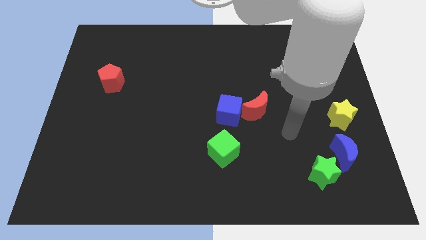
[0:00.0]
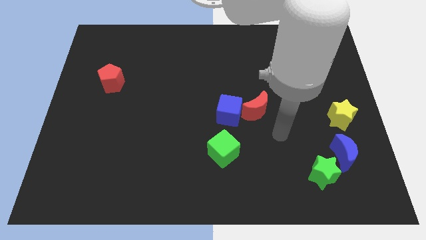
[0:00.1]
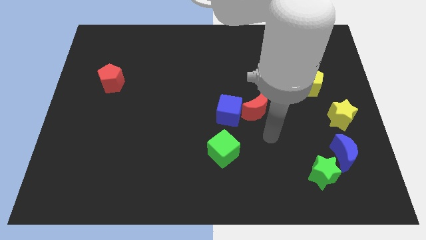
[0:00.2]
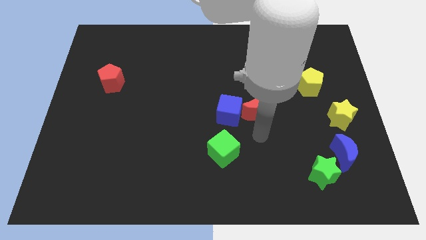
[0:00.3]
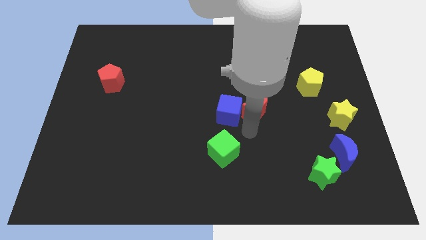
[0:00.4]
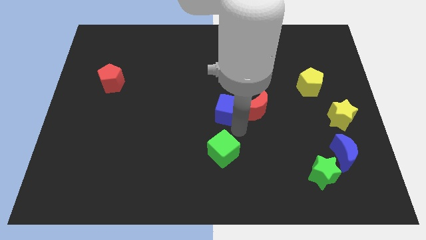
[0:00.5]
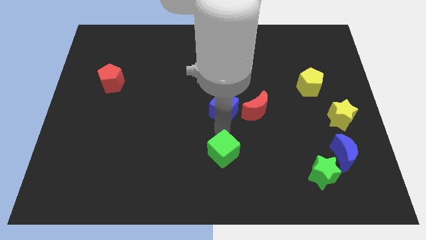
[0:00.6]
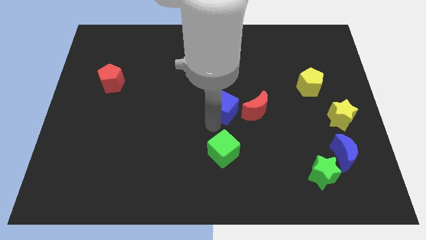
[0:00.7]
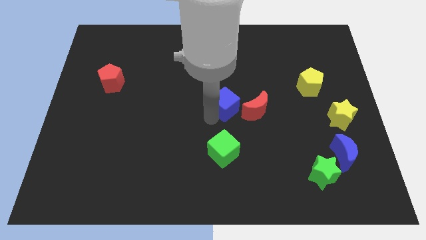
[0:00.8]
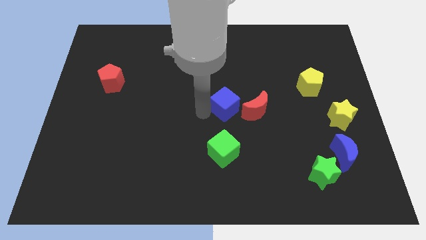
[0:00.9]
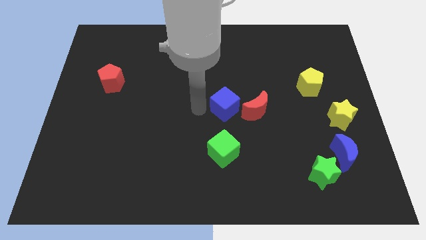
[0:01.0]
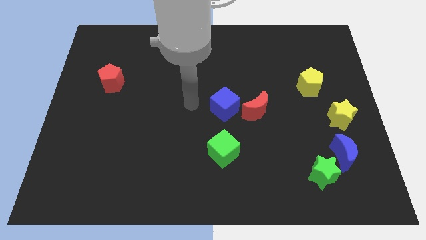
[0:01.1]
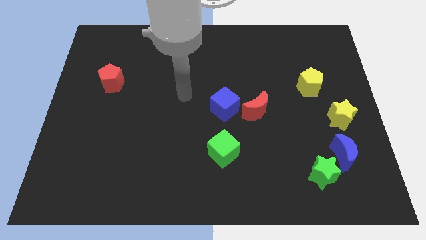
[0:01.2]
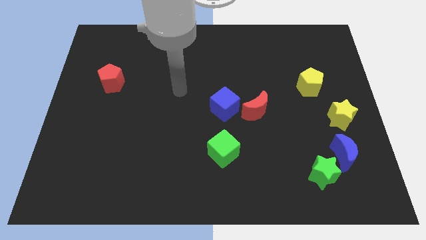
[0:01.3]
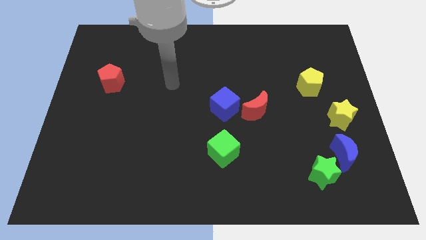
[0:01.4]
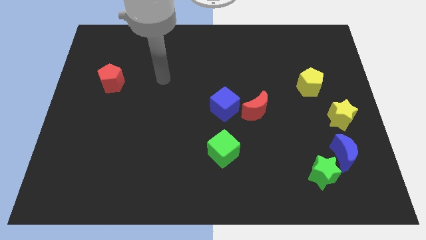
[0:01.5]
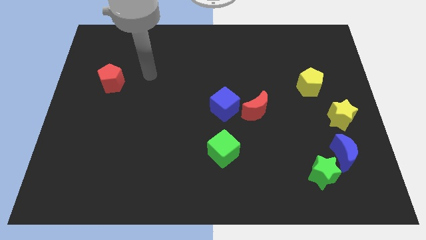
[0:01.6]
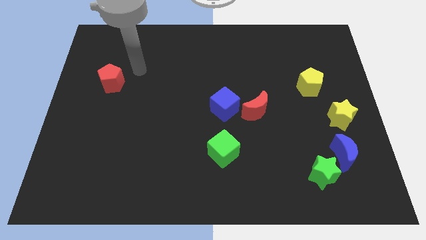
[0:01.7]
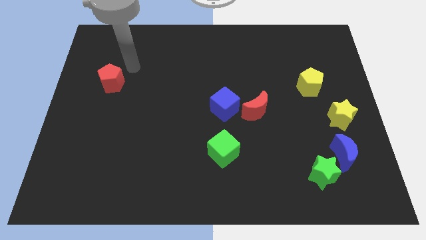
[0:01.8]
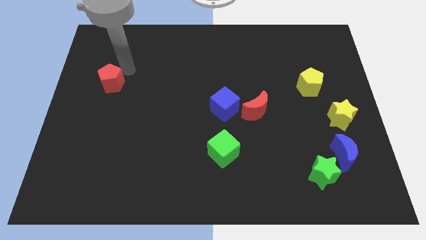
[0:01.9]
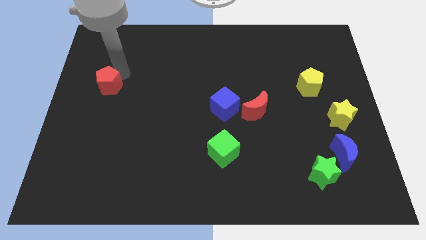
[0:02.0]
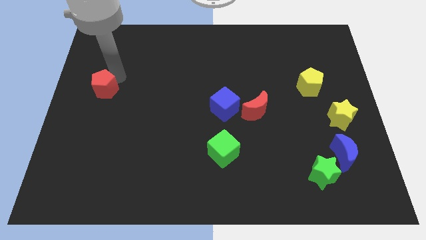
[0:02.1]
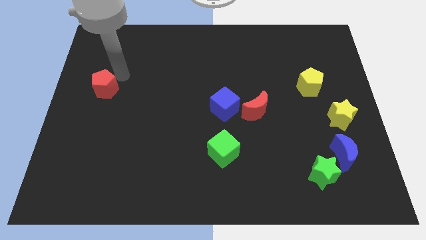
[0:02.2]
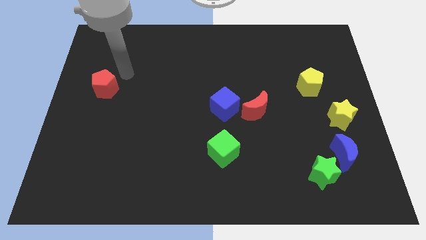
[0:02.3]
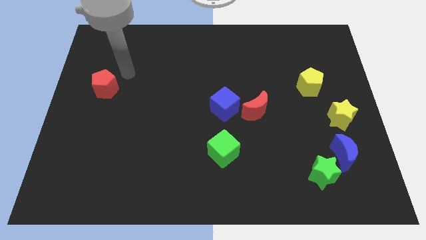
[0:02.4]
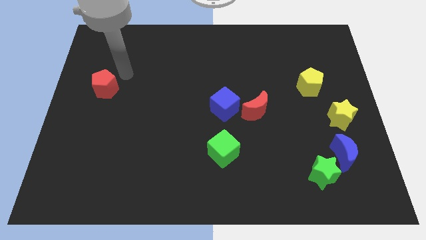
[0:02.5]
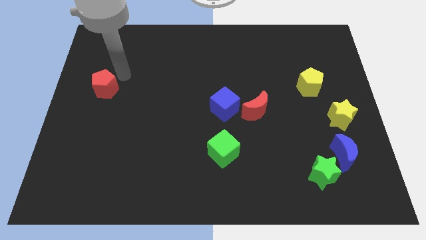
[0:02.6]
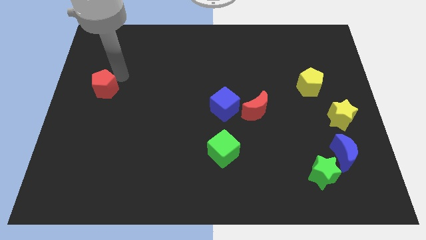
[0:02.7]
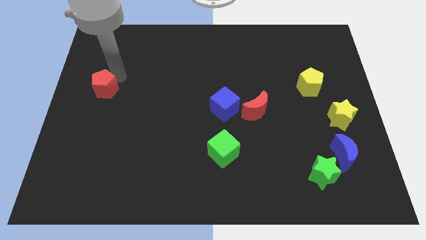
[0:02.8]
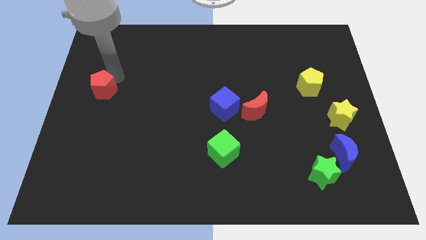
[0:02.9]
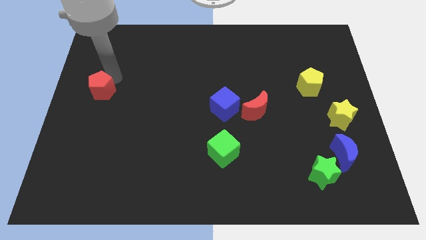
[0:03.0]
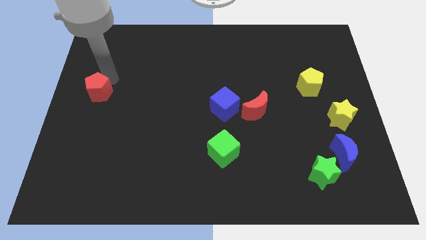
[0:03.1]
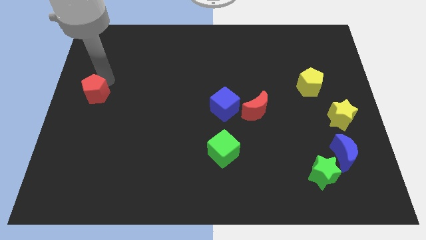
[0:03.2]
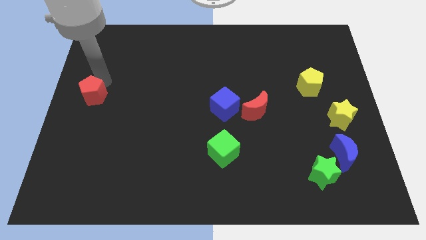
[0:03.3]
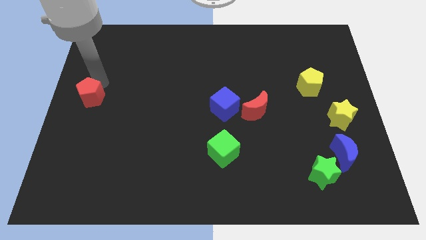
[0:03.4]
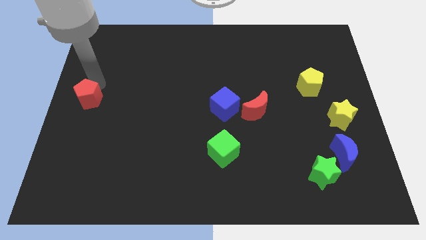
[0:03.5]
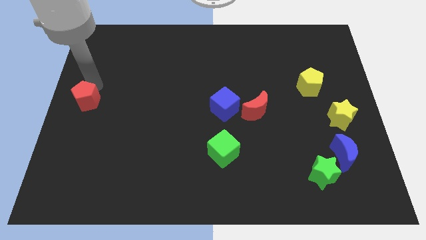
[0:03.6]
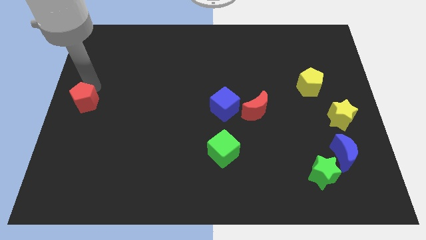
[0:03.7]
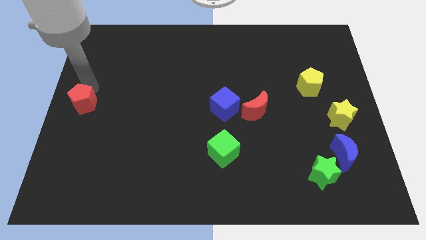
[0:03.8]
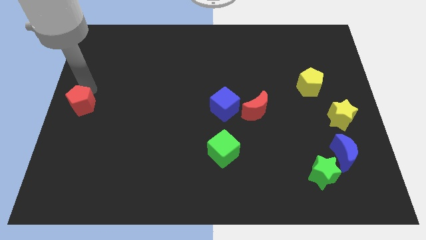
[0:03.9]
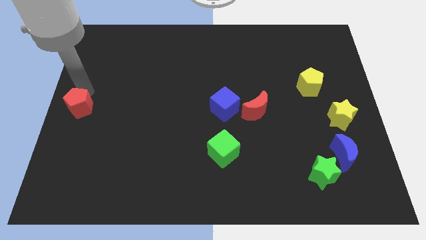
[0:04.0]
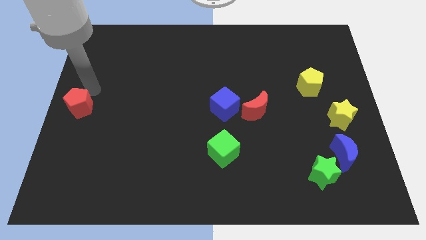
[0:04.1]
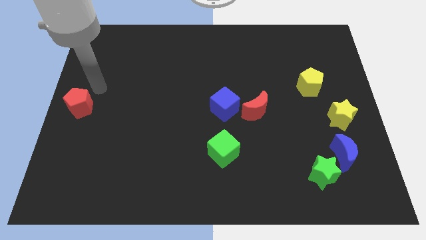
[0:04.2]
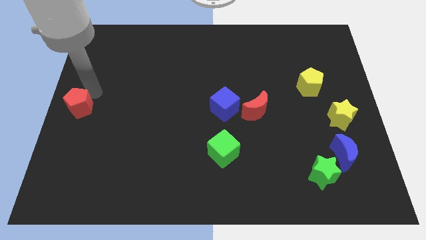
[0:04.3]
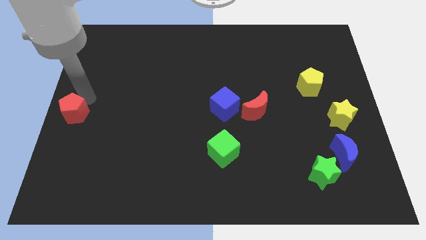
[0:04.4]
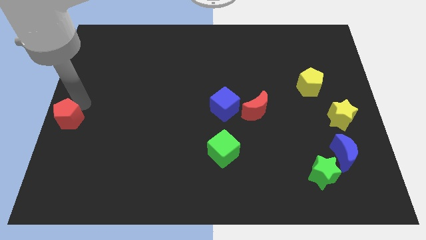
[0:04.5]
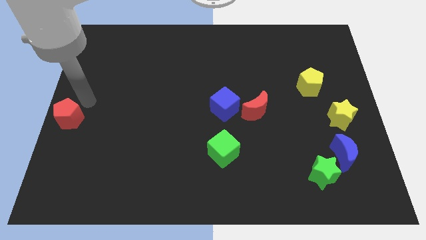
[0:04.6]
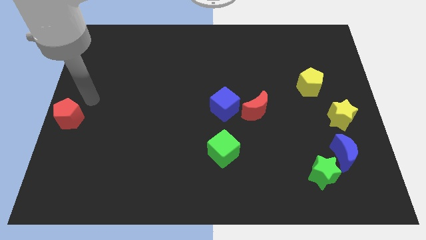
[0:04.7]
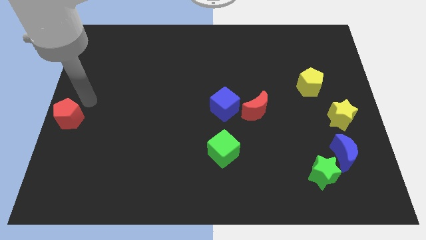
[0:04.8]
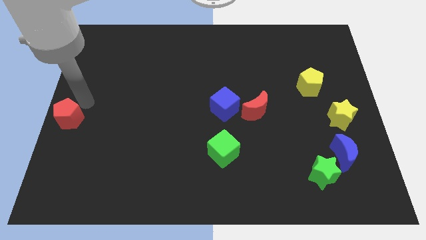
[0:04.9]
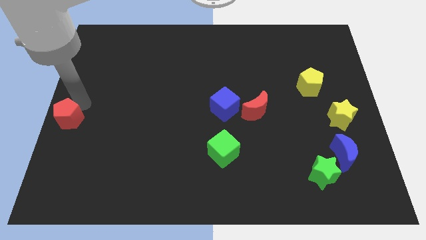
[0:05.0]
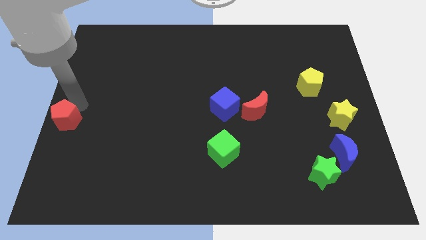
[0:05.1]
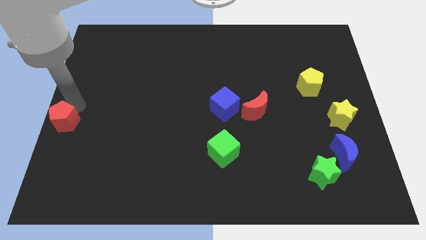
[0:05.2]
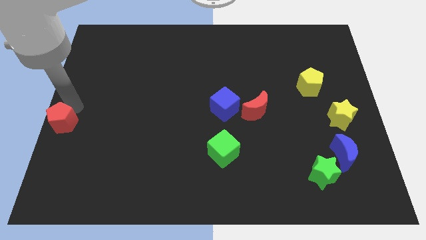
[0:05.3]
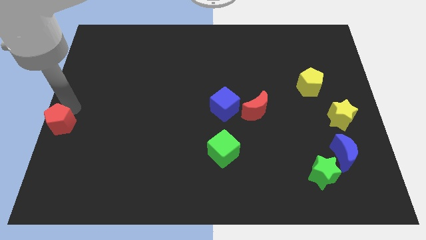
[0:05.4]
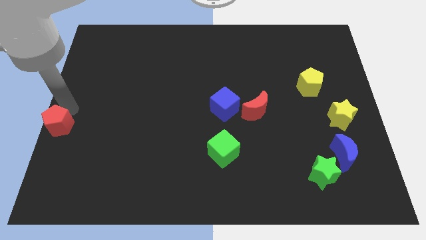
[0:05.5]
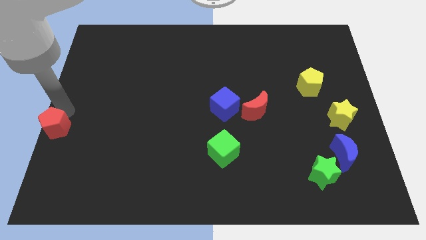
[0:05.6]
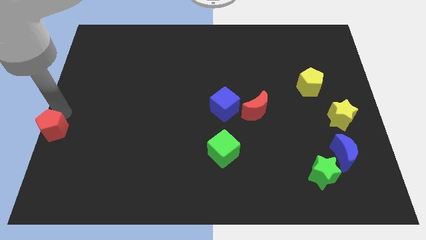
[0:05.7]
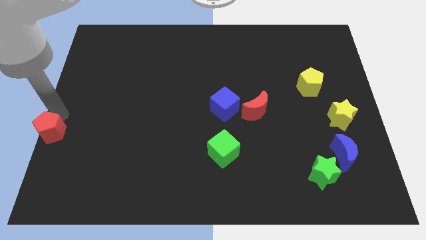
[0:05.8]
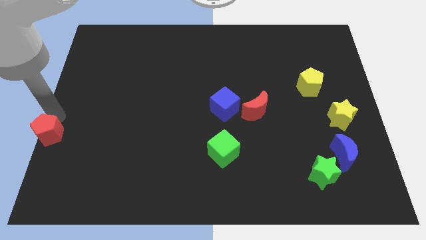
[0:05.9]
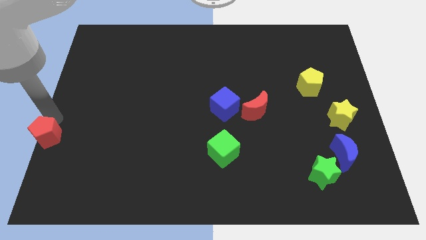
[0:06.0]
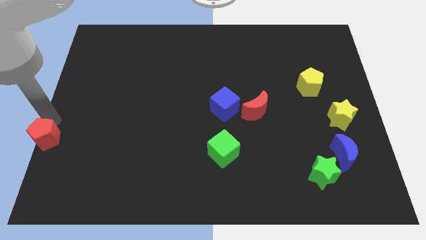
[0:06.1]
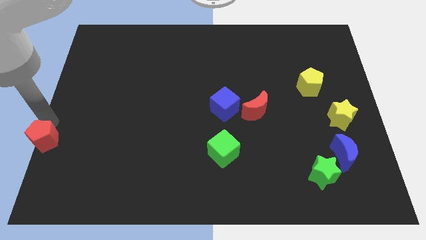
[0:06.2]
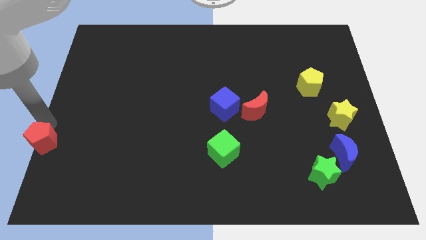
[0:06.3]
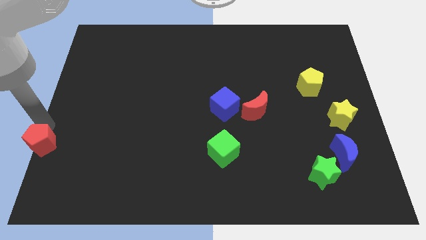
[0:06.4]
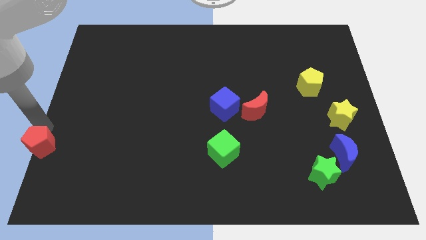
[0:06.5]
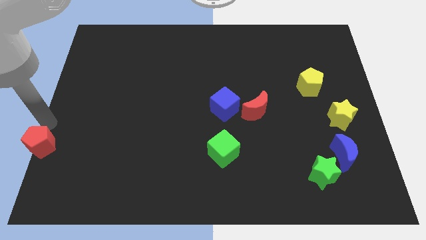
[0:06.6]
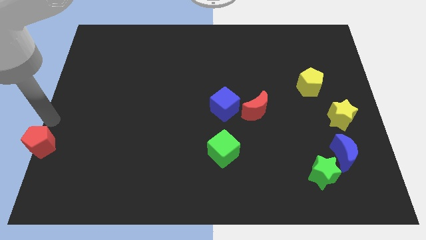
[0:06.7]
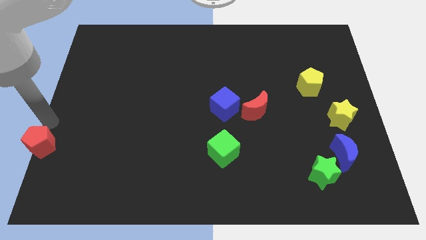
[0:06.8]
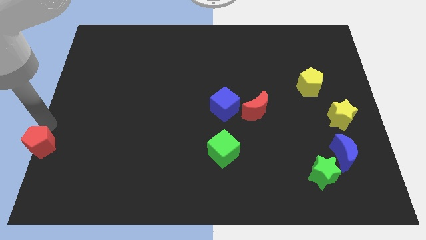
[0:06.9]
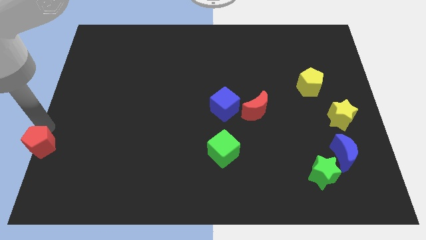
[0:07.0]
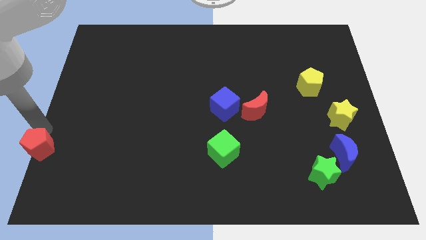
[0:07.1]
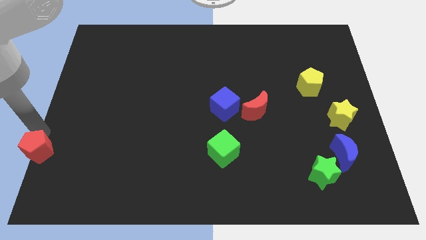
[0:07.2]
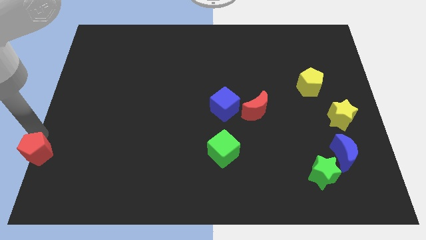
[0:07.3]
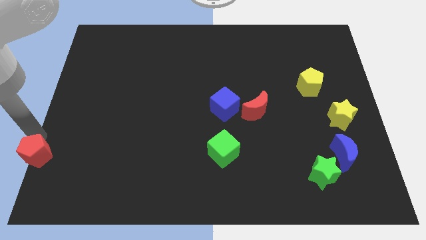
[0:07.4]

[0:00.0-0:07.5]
put the red pentagon to the bottom left of the board
